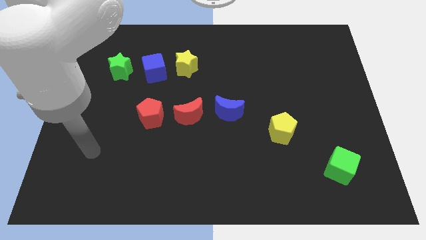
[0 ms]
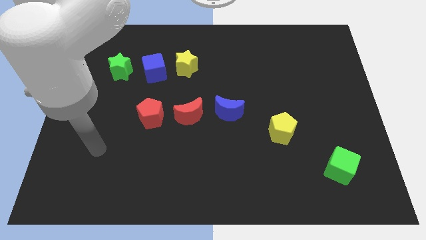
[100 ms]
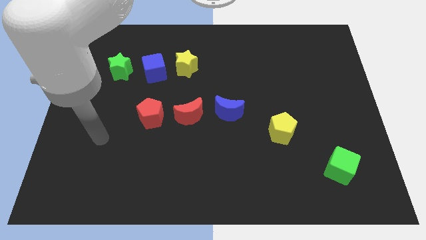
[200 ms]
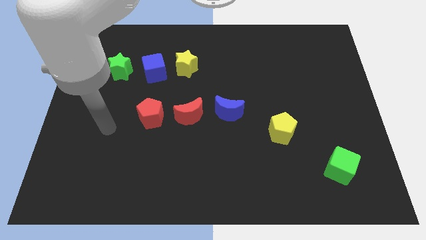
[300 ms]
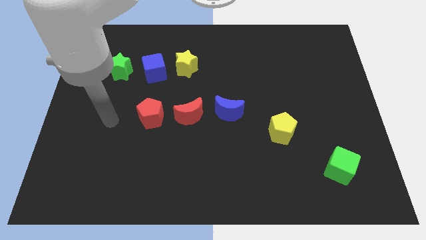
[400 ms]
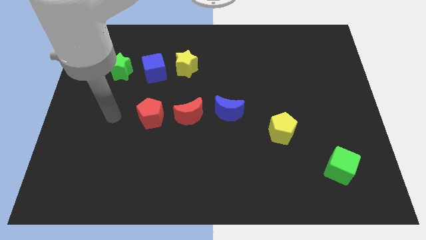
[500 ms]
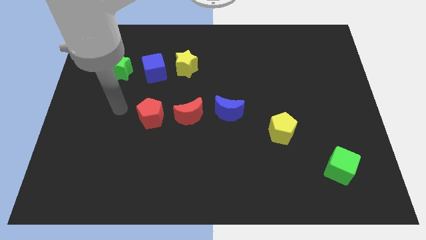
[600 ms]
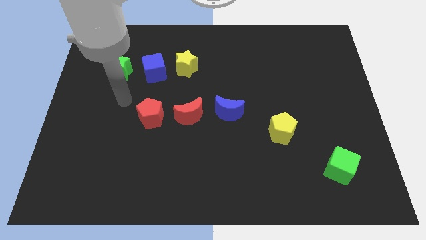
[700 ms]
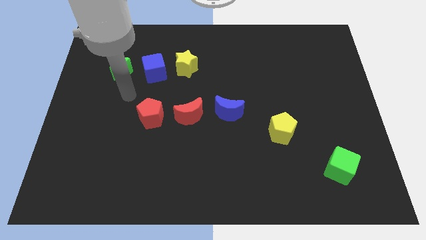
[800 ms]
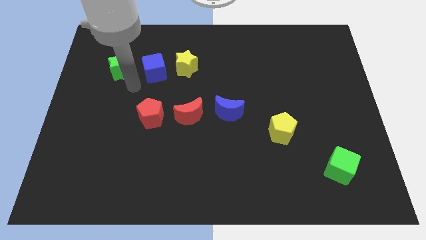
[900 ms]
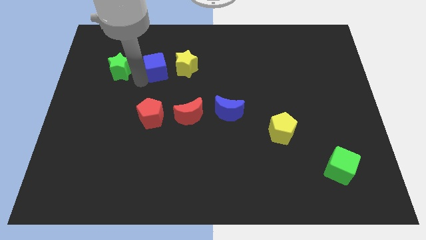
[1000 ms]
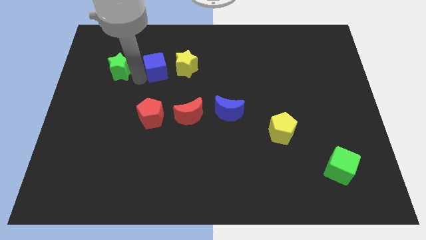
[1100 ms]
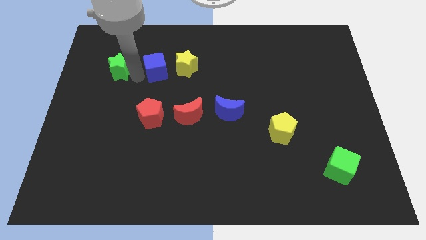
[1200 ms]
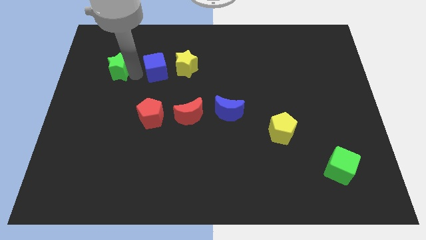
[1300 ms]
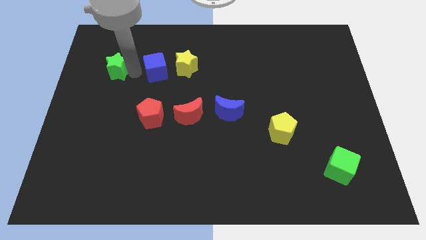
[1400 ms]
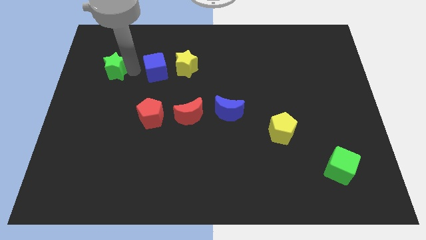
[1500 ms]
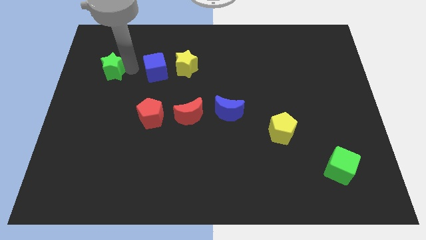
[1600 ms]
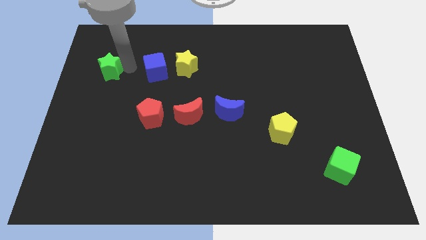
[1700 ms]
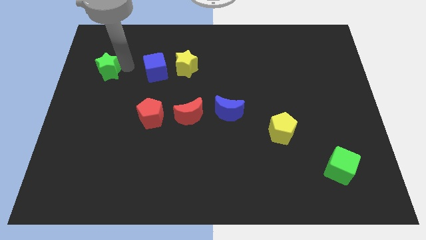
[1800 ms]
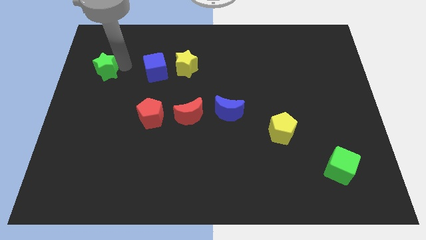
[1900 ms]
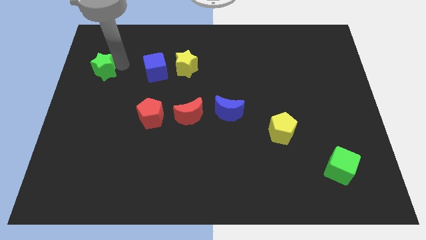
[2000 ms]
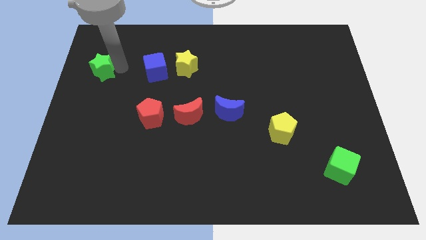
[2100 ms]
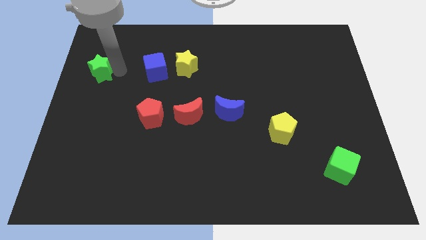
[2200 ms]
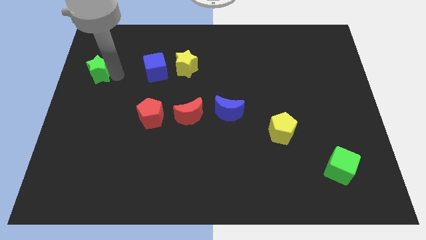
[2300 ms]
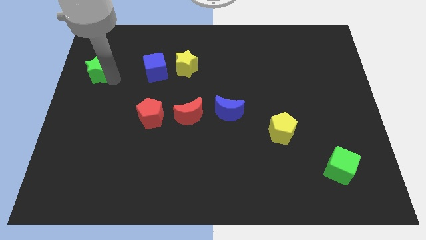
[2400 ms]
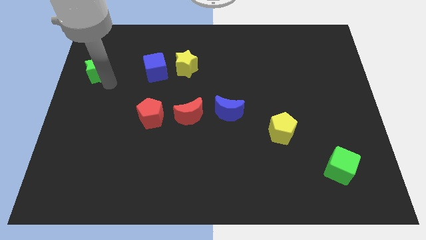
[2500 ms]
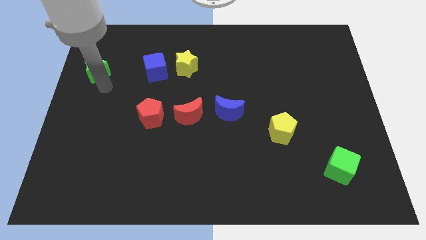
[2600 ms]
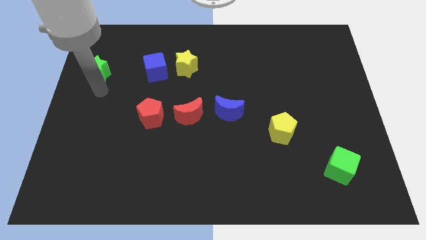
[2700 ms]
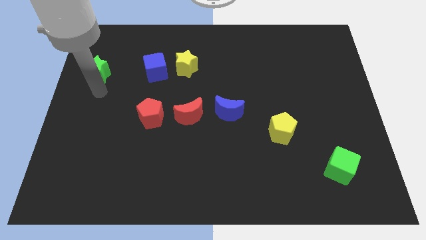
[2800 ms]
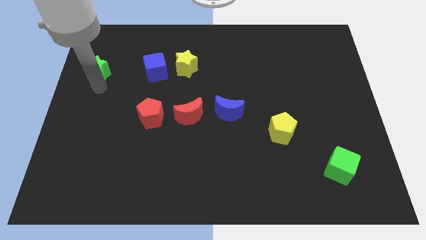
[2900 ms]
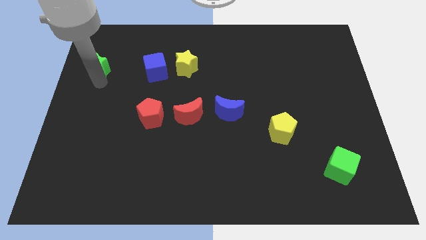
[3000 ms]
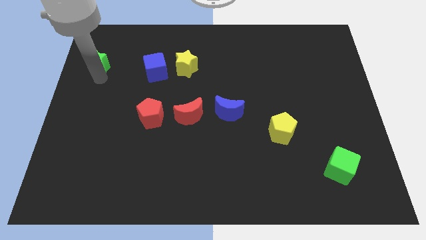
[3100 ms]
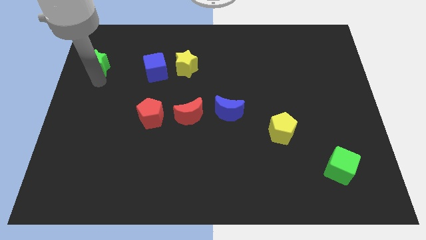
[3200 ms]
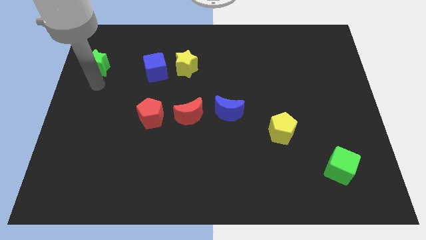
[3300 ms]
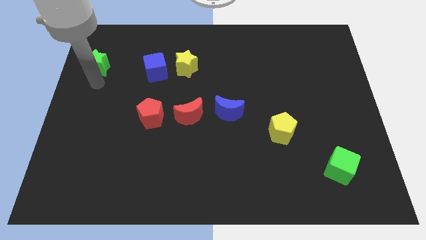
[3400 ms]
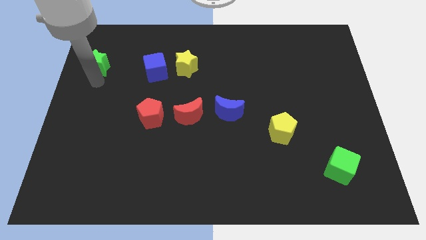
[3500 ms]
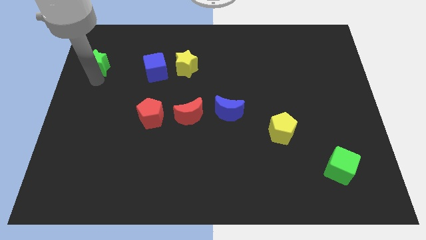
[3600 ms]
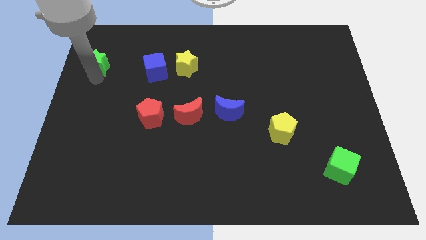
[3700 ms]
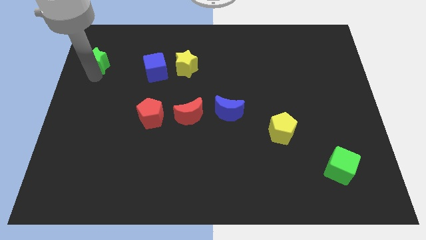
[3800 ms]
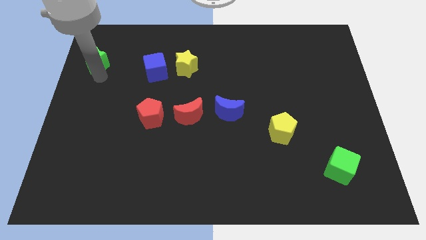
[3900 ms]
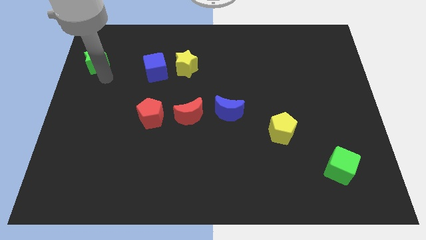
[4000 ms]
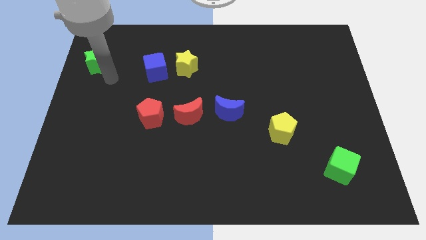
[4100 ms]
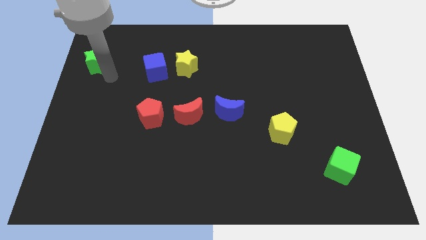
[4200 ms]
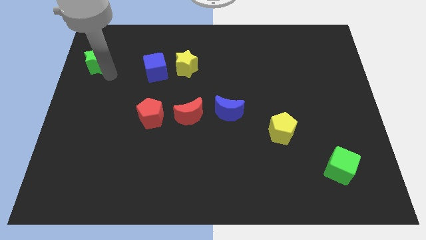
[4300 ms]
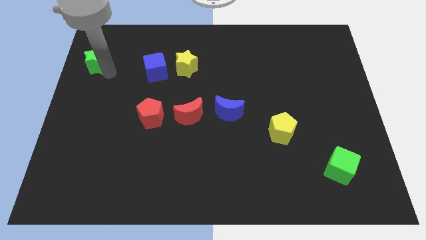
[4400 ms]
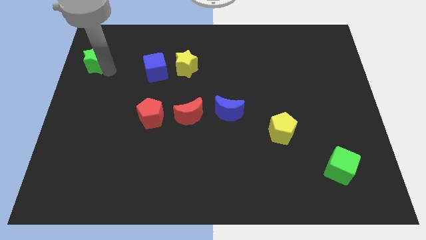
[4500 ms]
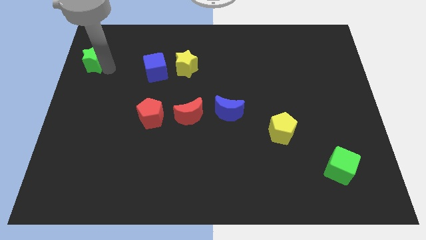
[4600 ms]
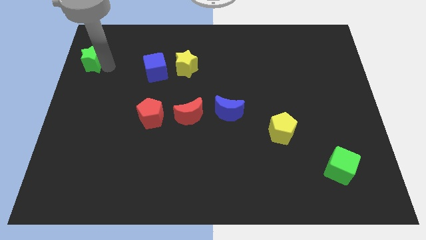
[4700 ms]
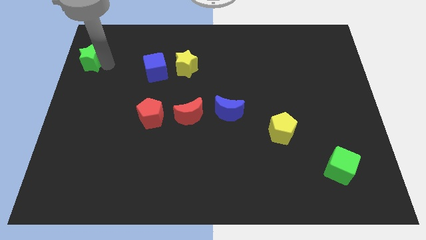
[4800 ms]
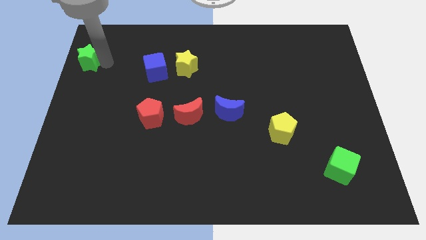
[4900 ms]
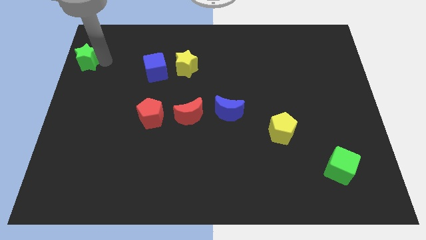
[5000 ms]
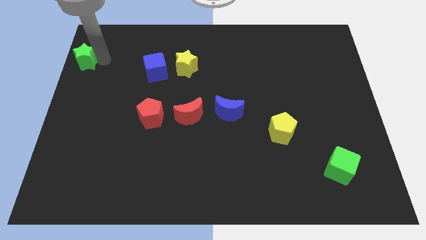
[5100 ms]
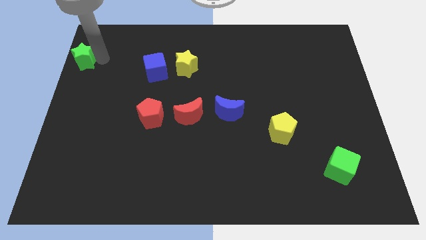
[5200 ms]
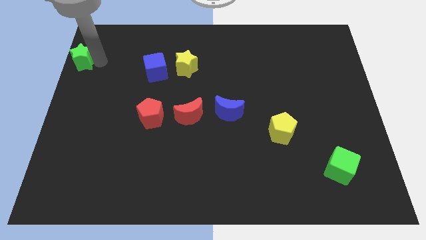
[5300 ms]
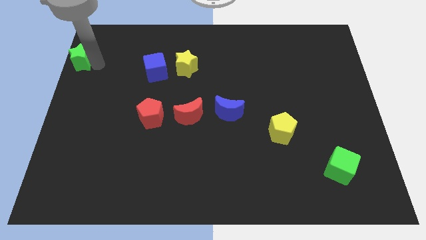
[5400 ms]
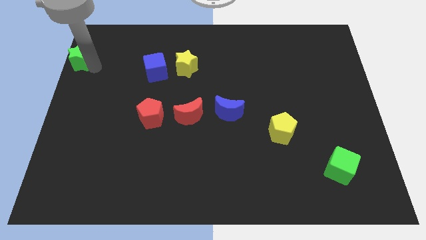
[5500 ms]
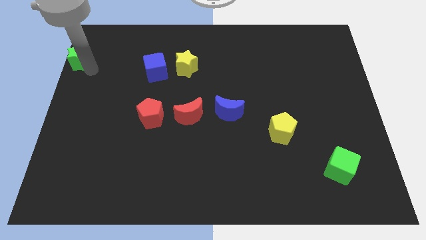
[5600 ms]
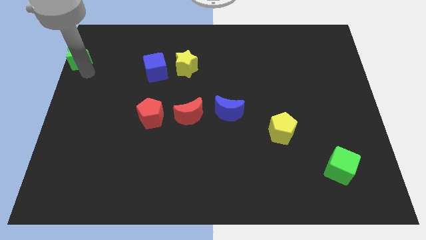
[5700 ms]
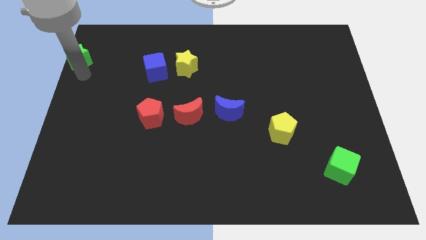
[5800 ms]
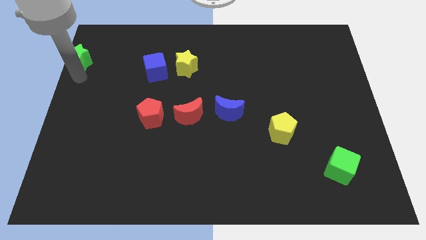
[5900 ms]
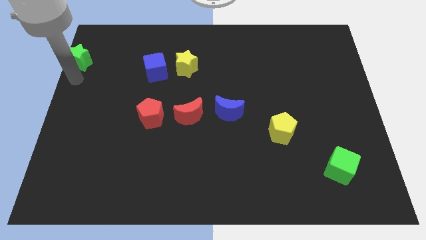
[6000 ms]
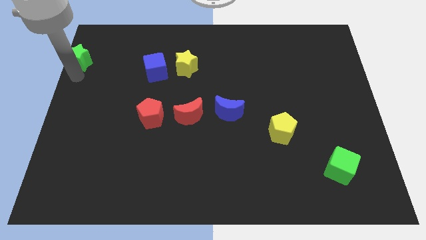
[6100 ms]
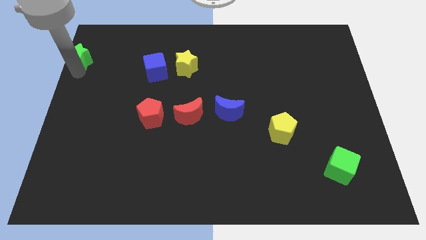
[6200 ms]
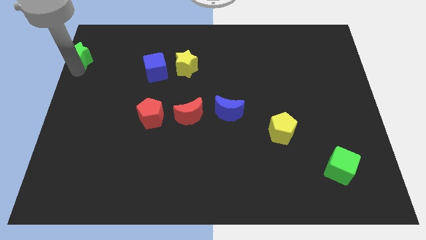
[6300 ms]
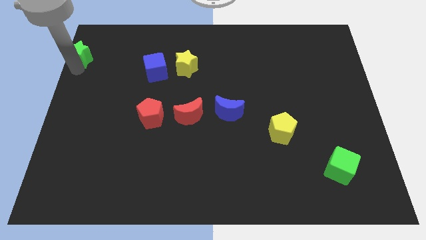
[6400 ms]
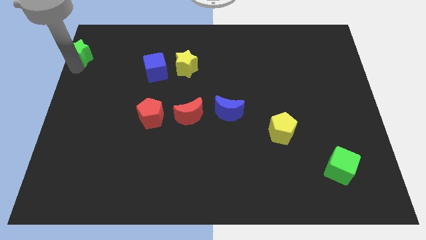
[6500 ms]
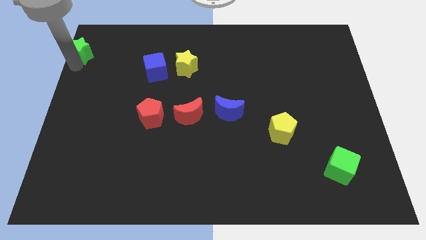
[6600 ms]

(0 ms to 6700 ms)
move the green star to the top left of the board
